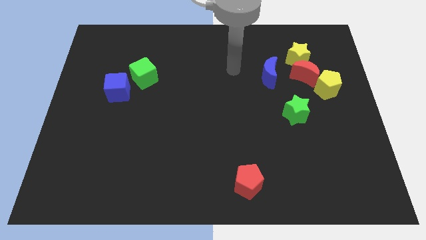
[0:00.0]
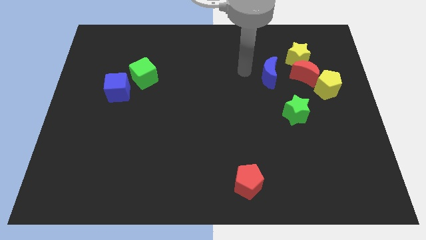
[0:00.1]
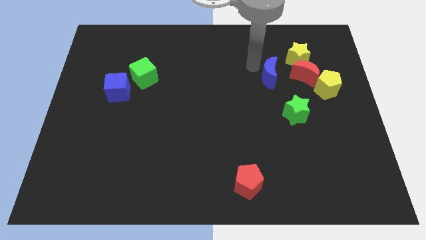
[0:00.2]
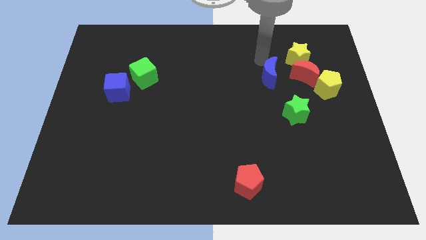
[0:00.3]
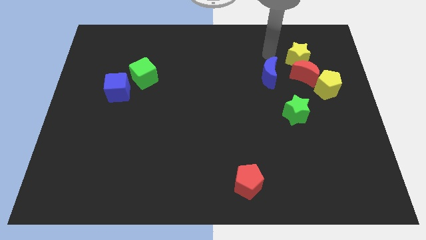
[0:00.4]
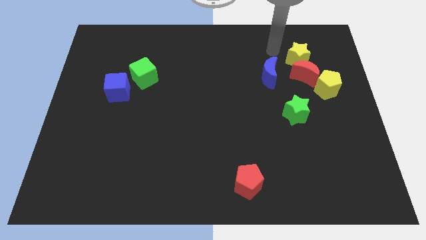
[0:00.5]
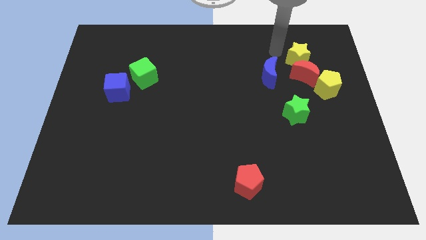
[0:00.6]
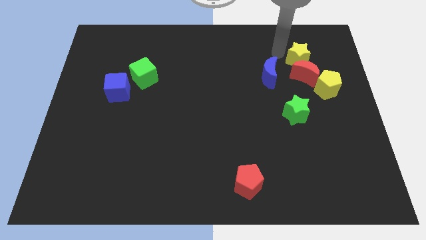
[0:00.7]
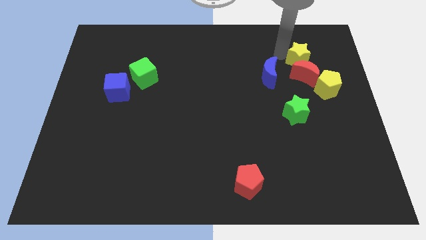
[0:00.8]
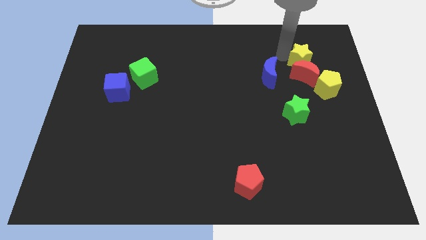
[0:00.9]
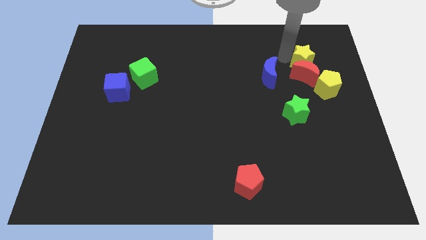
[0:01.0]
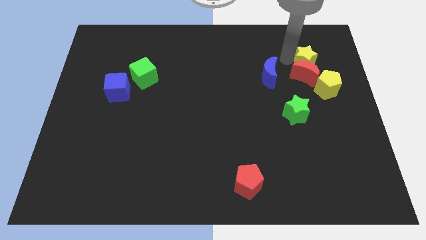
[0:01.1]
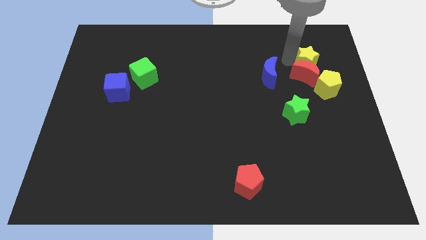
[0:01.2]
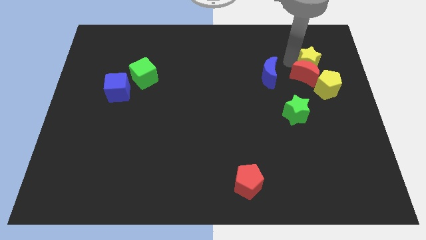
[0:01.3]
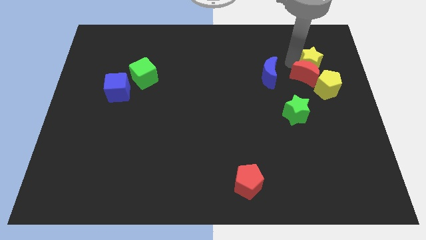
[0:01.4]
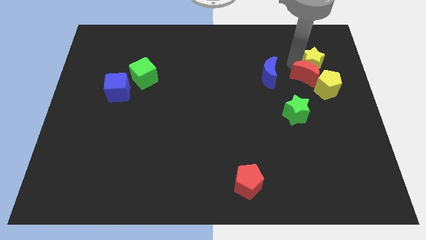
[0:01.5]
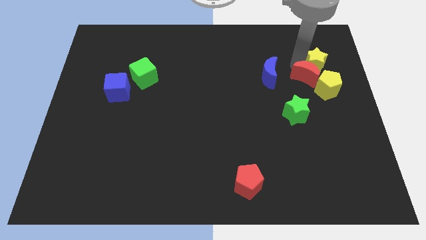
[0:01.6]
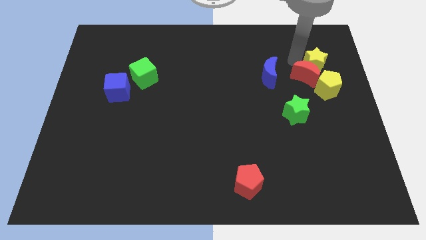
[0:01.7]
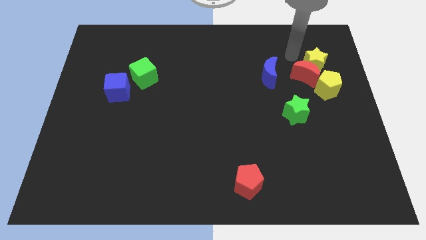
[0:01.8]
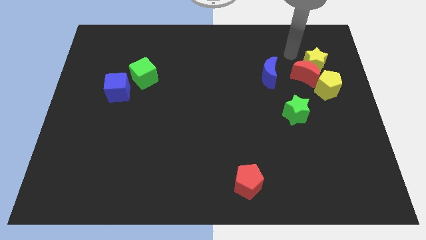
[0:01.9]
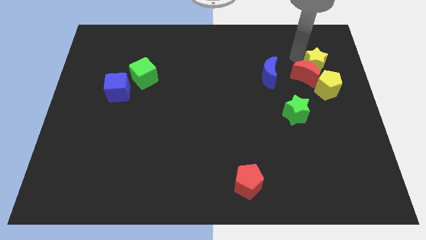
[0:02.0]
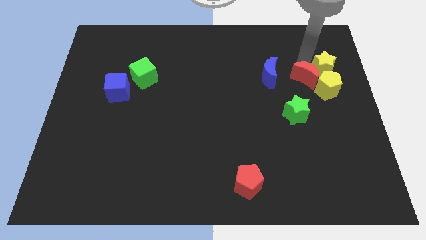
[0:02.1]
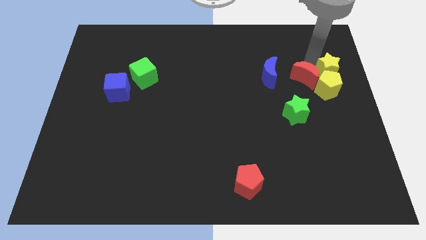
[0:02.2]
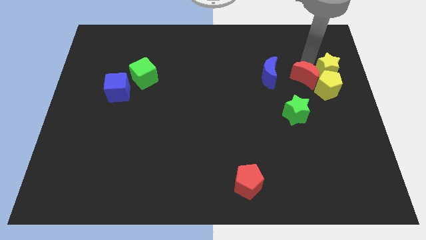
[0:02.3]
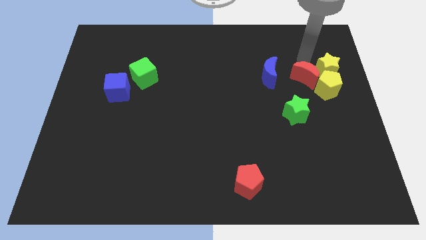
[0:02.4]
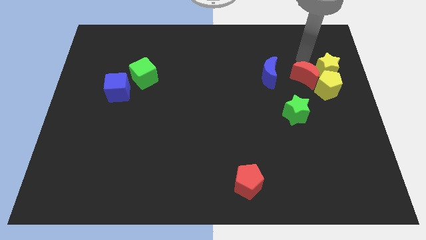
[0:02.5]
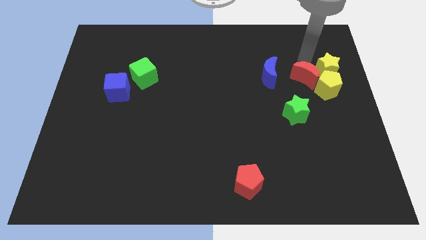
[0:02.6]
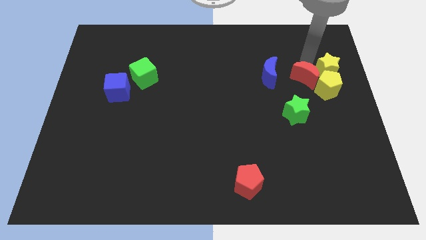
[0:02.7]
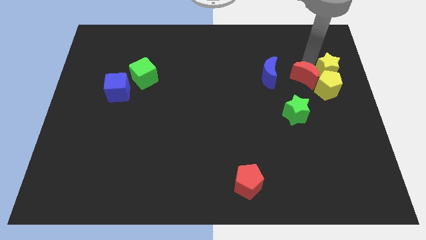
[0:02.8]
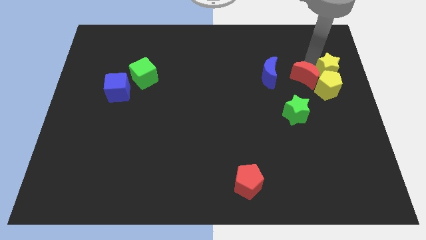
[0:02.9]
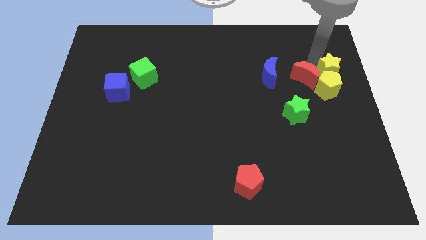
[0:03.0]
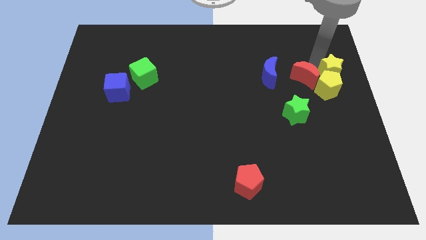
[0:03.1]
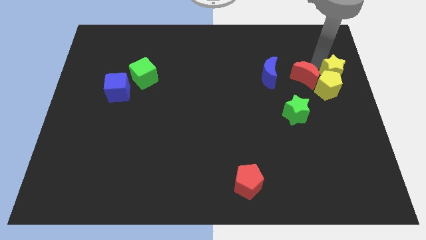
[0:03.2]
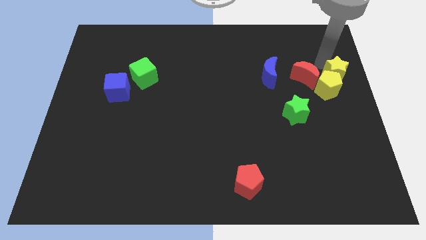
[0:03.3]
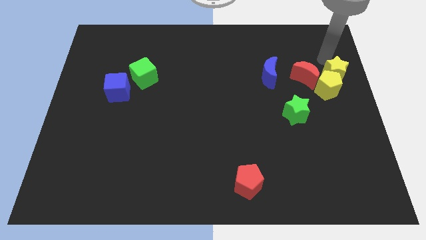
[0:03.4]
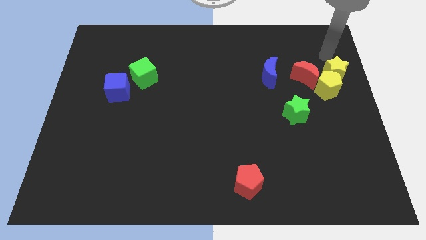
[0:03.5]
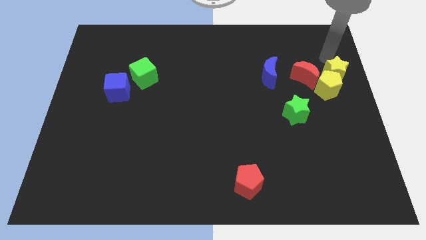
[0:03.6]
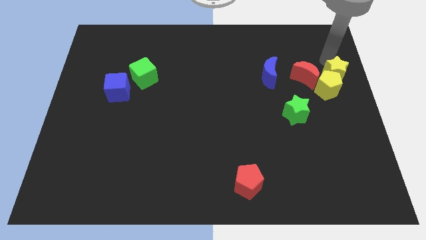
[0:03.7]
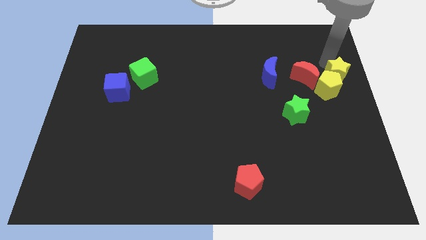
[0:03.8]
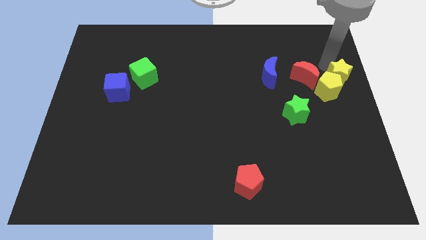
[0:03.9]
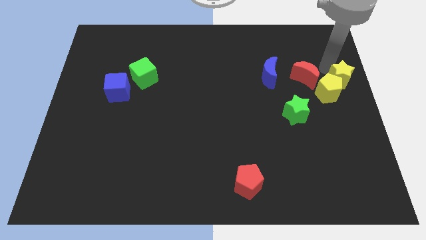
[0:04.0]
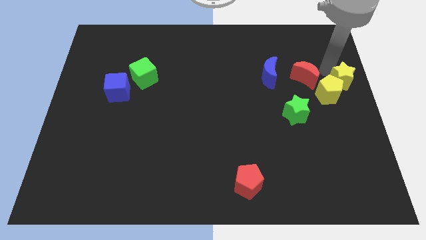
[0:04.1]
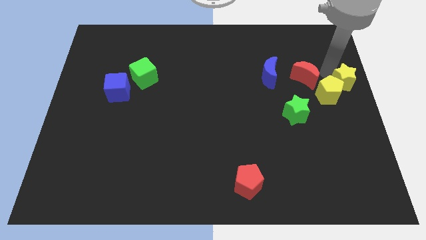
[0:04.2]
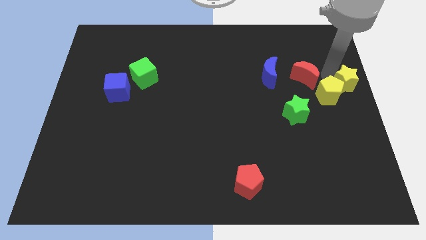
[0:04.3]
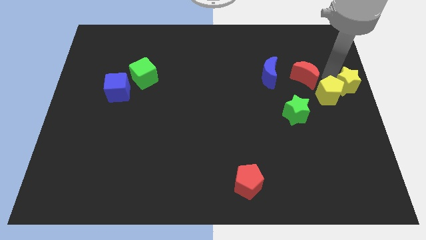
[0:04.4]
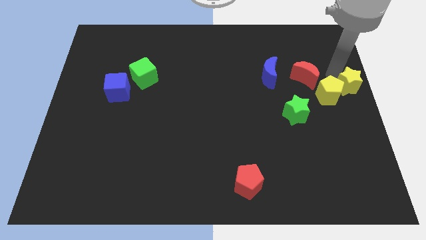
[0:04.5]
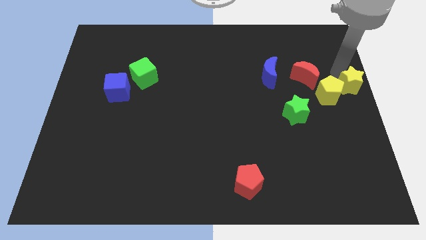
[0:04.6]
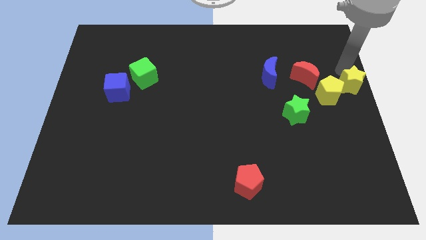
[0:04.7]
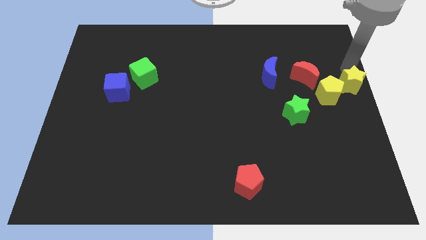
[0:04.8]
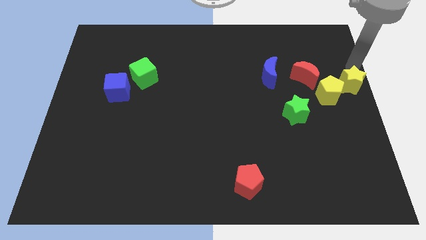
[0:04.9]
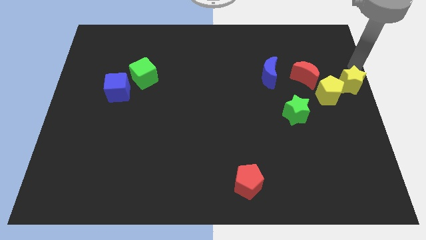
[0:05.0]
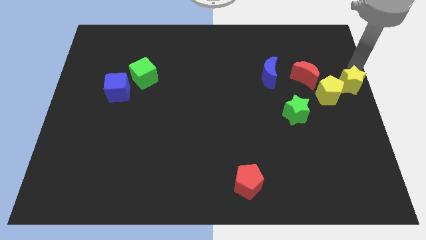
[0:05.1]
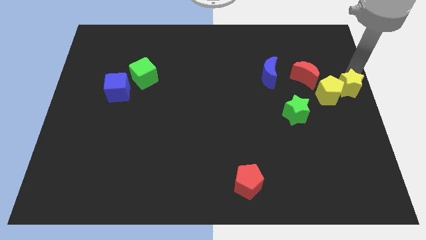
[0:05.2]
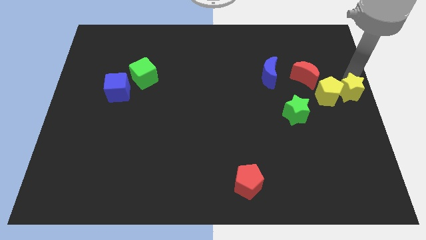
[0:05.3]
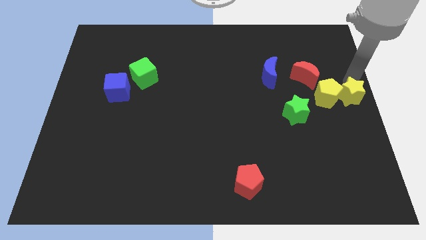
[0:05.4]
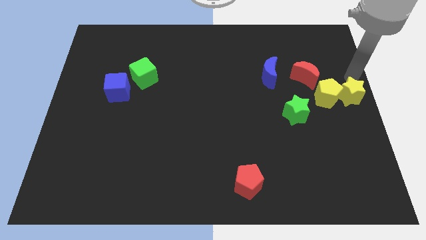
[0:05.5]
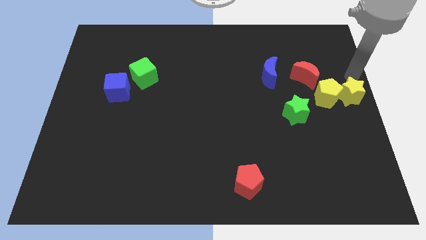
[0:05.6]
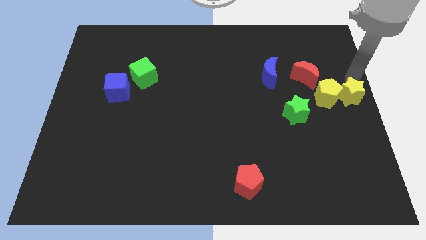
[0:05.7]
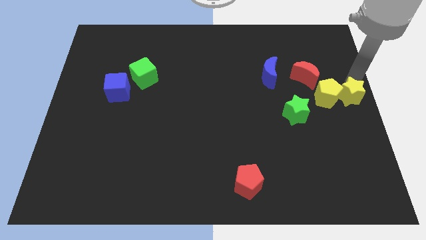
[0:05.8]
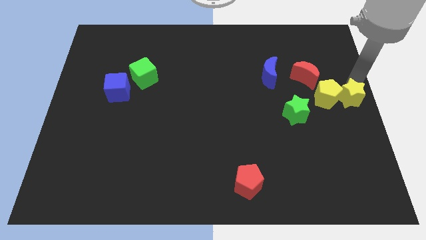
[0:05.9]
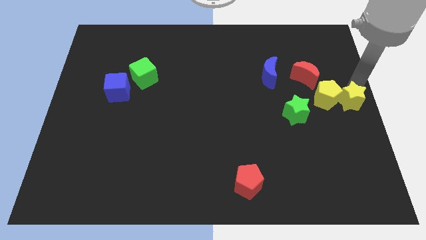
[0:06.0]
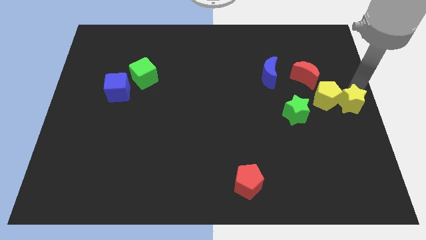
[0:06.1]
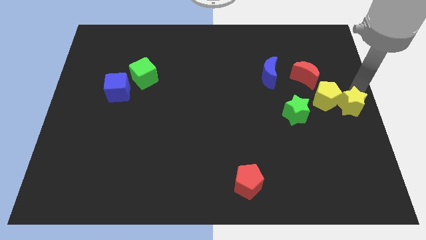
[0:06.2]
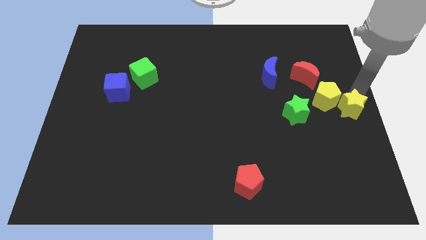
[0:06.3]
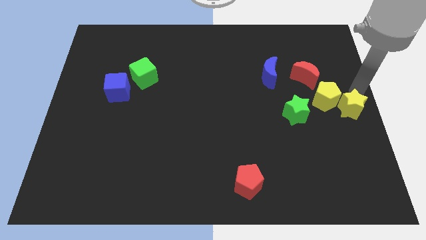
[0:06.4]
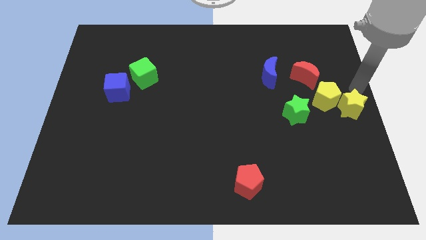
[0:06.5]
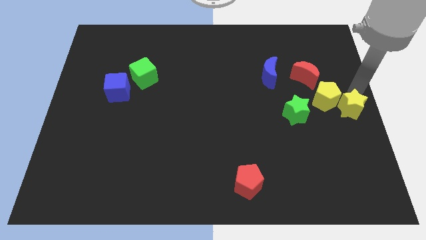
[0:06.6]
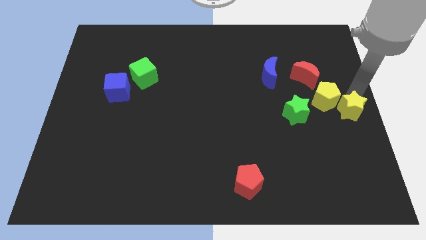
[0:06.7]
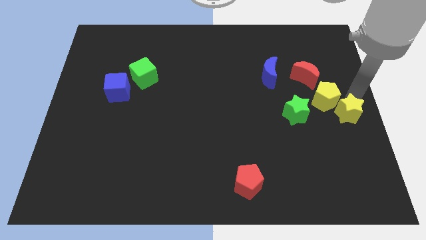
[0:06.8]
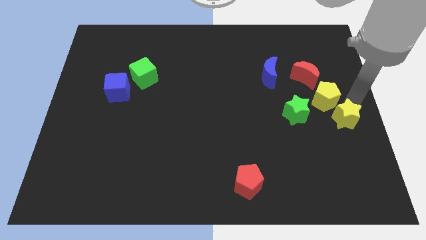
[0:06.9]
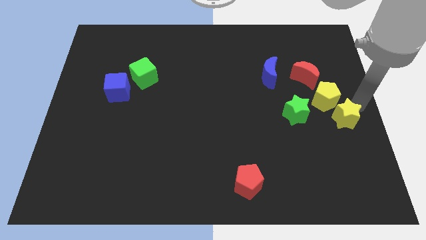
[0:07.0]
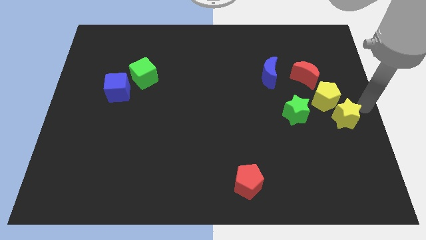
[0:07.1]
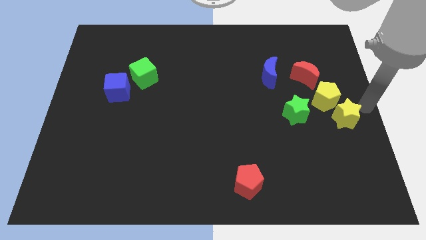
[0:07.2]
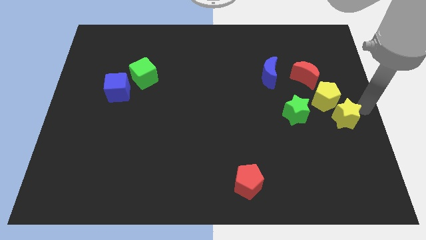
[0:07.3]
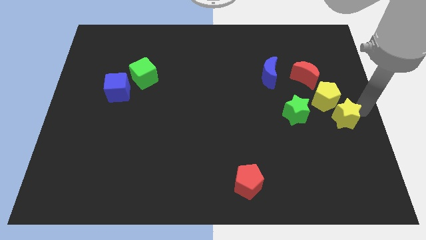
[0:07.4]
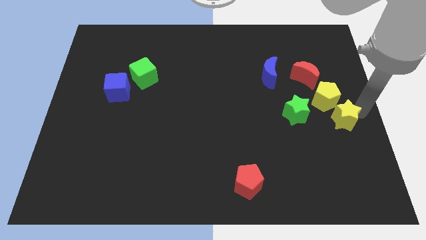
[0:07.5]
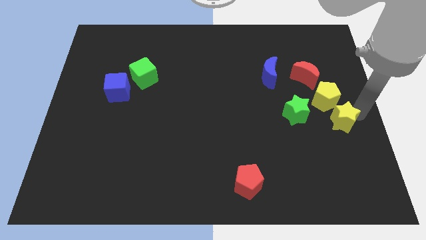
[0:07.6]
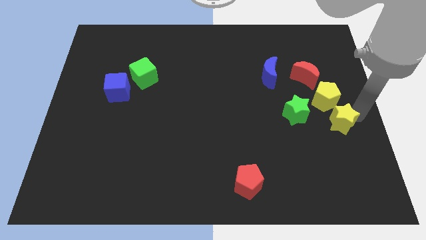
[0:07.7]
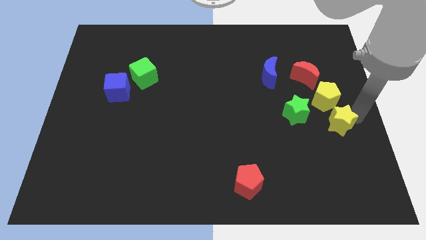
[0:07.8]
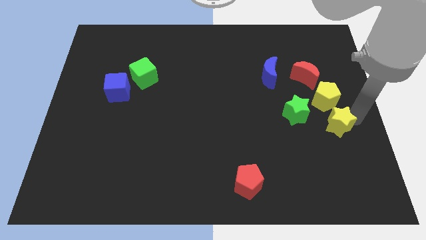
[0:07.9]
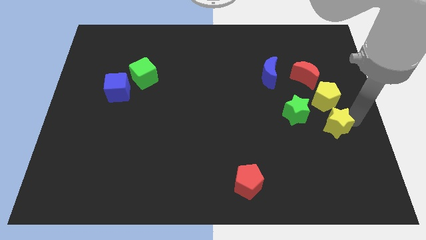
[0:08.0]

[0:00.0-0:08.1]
push the yellow star down

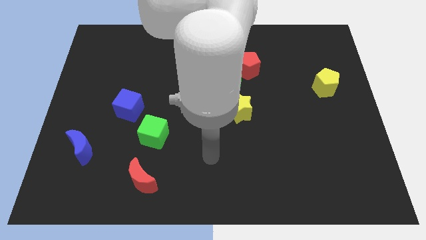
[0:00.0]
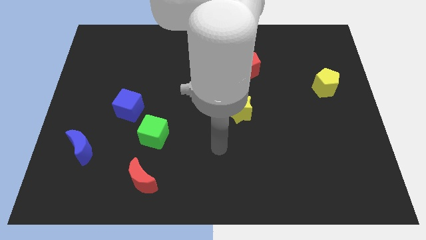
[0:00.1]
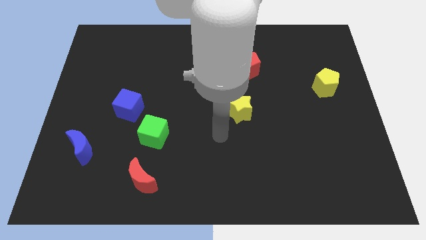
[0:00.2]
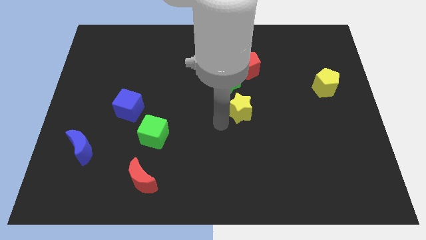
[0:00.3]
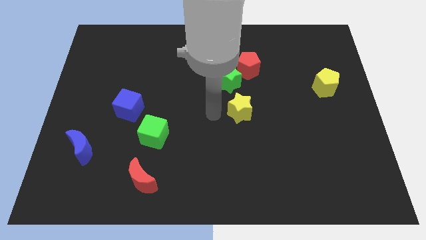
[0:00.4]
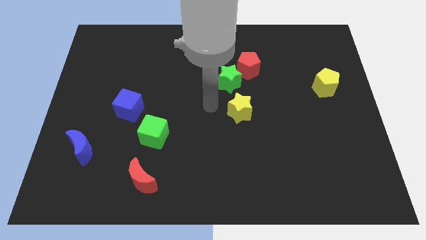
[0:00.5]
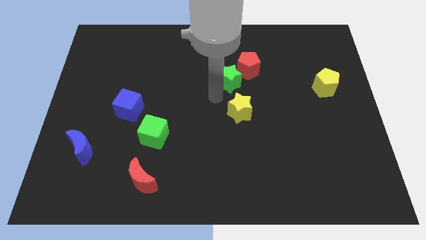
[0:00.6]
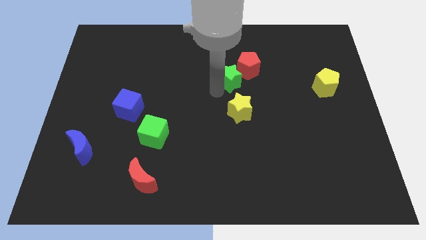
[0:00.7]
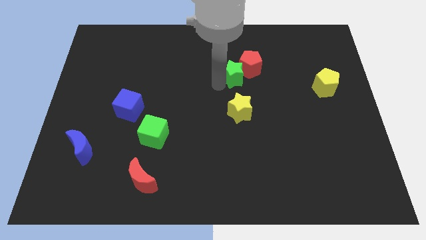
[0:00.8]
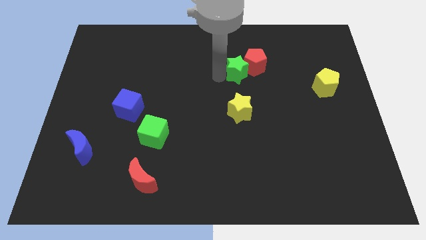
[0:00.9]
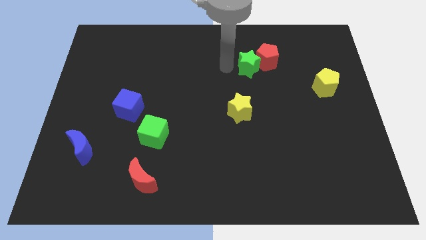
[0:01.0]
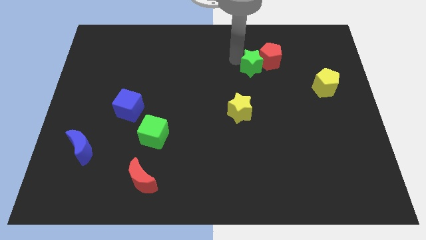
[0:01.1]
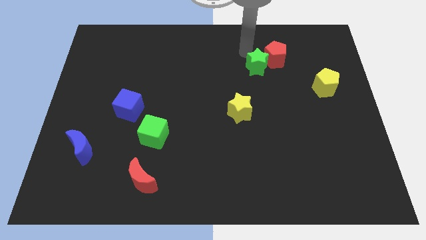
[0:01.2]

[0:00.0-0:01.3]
slightly push the red pentagon right
